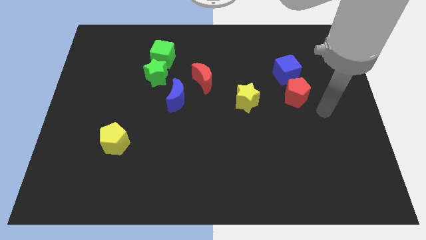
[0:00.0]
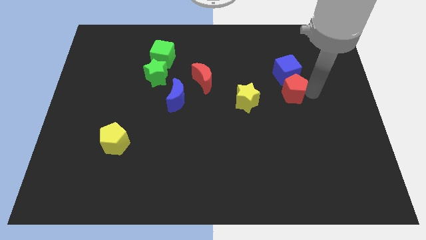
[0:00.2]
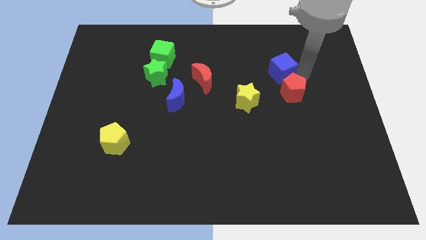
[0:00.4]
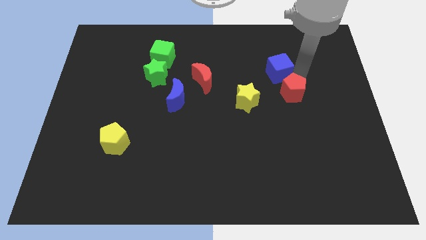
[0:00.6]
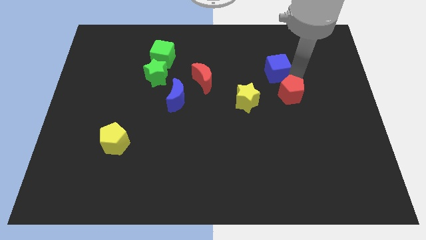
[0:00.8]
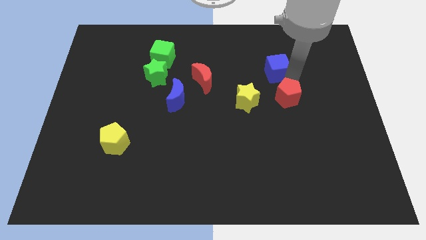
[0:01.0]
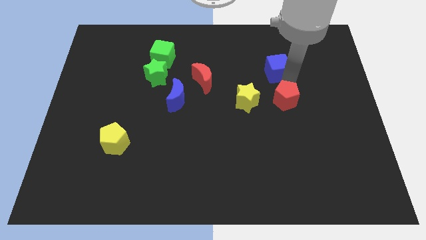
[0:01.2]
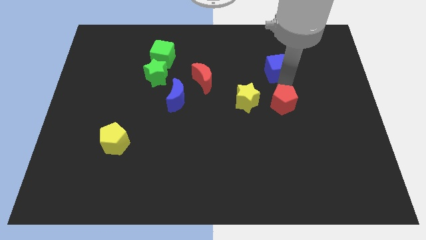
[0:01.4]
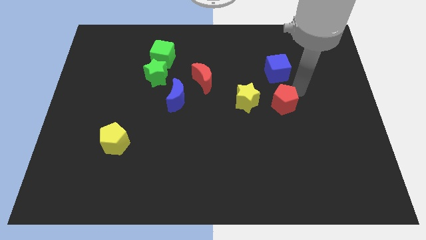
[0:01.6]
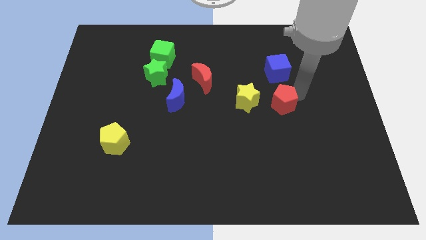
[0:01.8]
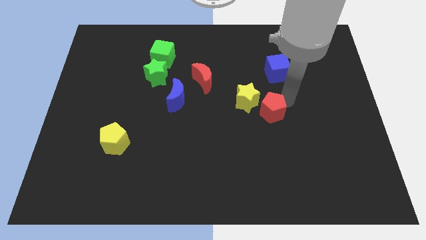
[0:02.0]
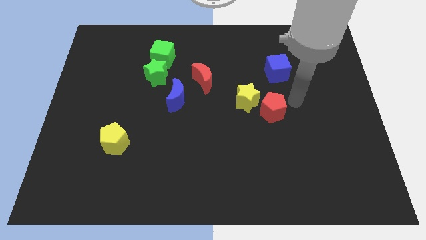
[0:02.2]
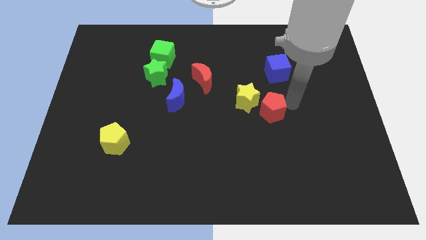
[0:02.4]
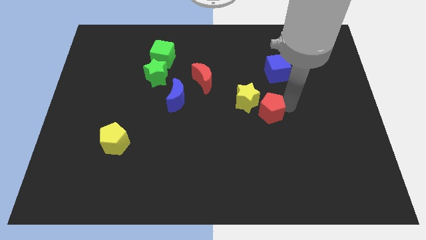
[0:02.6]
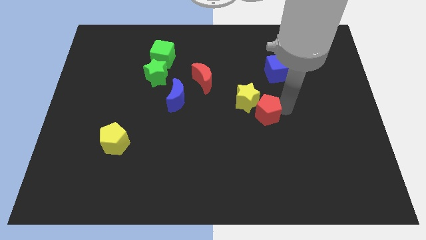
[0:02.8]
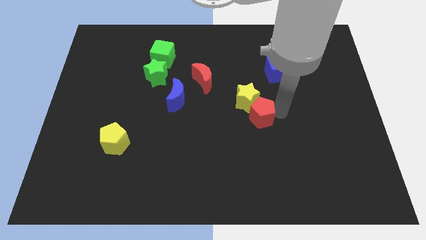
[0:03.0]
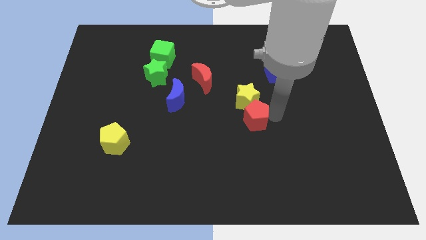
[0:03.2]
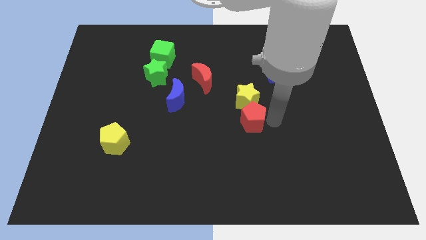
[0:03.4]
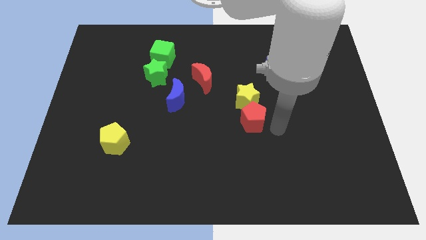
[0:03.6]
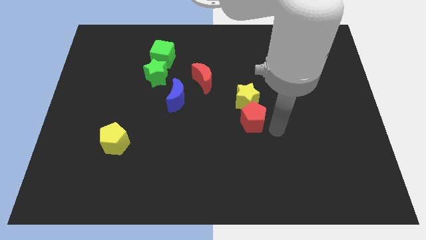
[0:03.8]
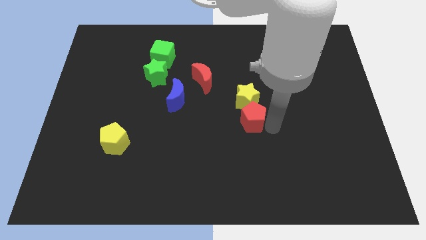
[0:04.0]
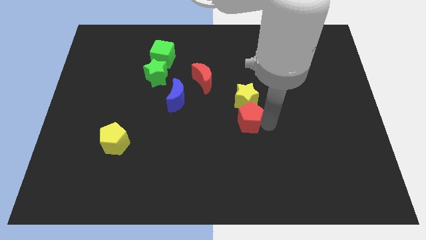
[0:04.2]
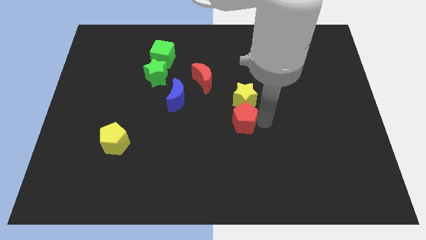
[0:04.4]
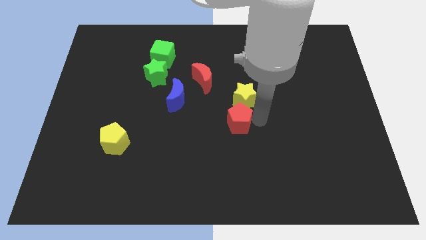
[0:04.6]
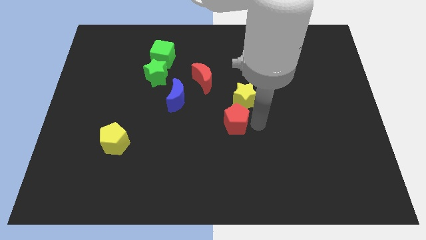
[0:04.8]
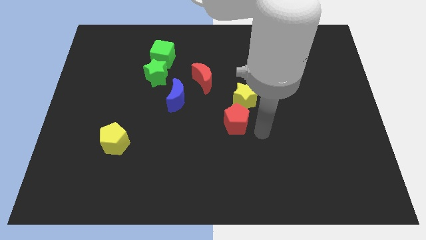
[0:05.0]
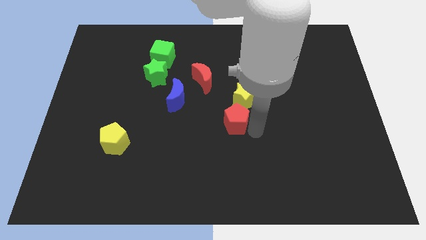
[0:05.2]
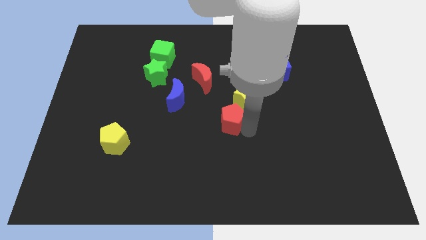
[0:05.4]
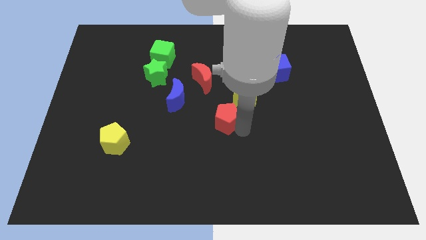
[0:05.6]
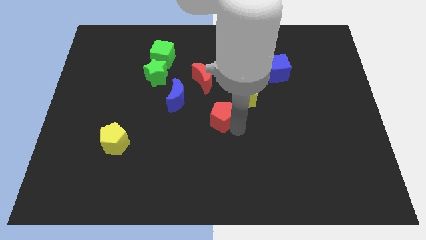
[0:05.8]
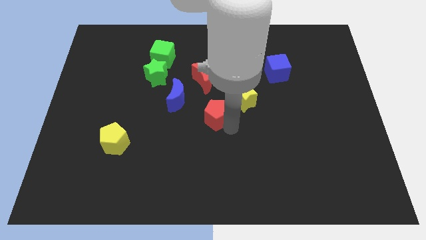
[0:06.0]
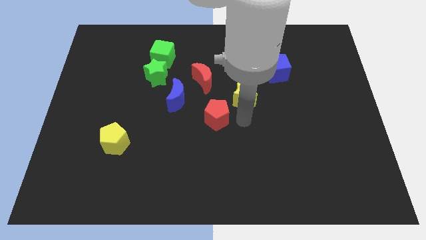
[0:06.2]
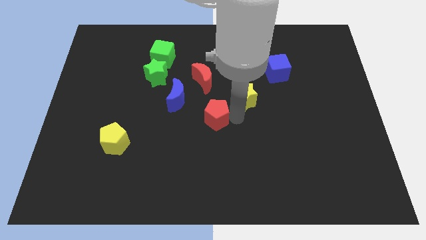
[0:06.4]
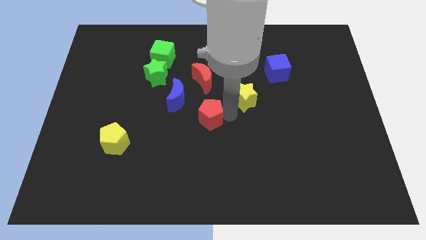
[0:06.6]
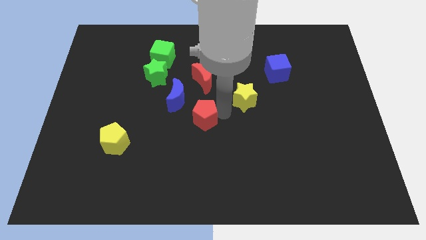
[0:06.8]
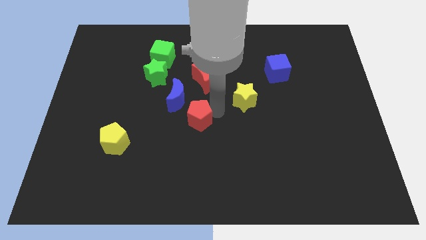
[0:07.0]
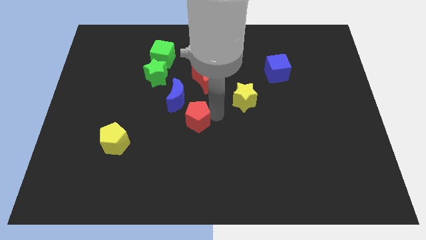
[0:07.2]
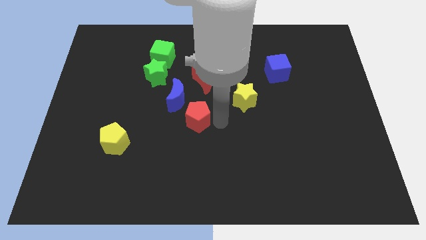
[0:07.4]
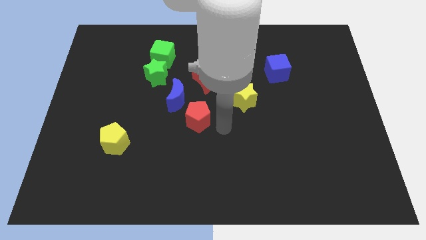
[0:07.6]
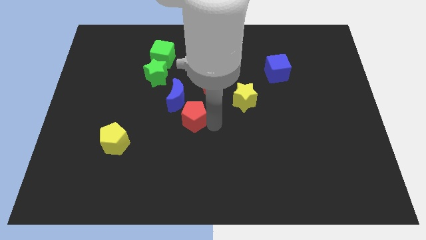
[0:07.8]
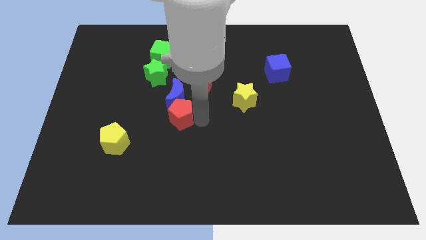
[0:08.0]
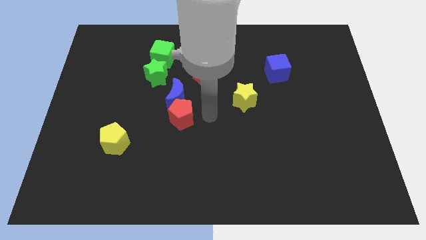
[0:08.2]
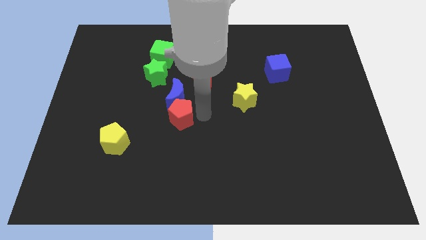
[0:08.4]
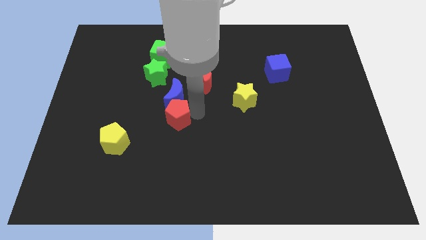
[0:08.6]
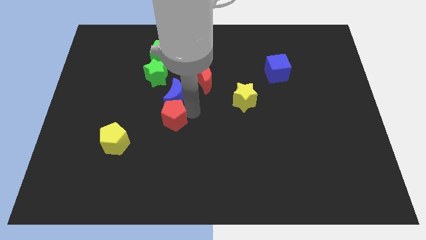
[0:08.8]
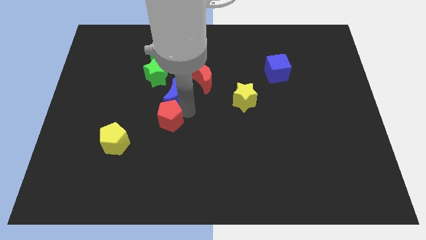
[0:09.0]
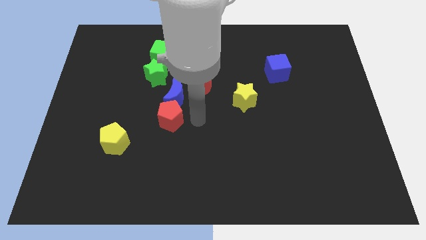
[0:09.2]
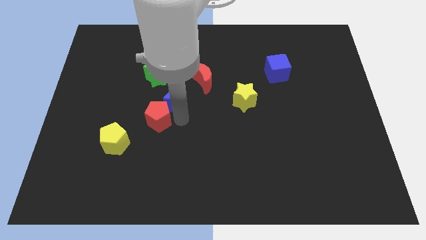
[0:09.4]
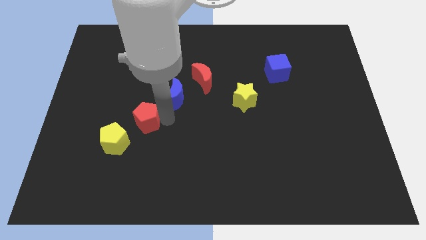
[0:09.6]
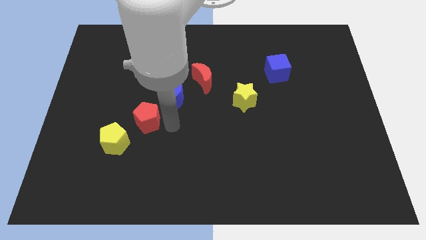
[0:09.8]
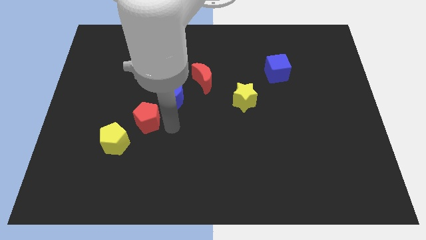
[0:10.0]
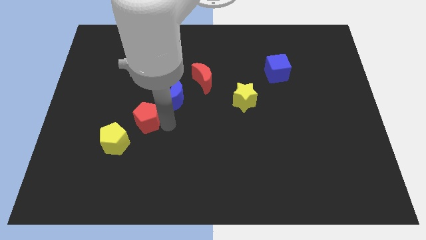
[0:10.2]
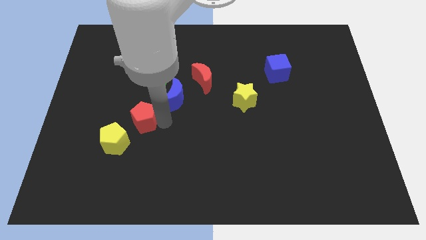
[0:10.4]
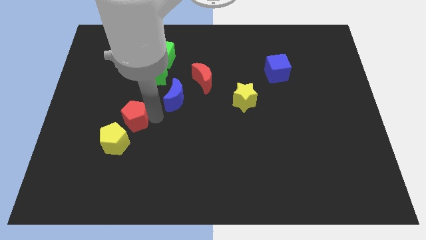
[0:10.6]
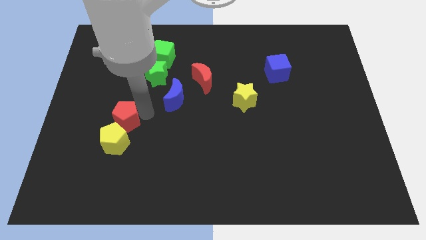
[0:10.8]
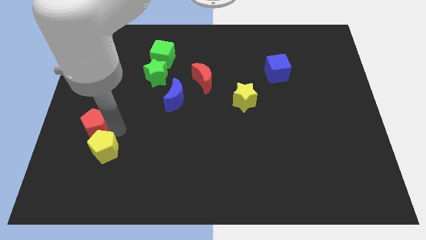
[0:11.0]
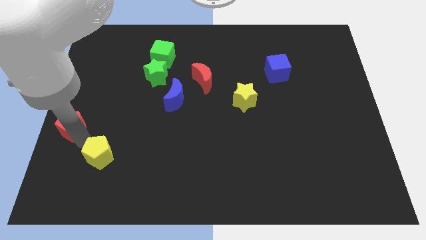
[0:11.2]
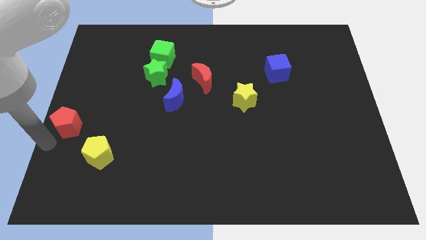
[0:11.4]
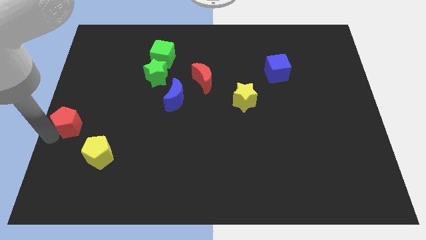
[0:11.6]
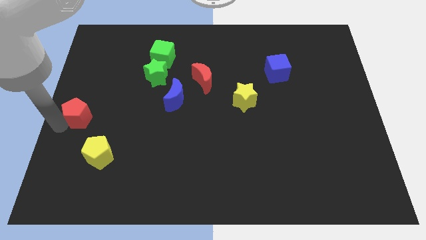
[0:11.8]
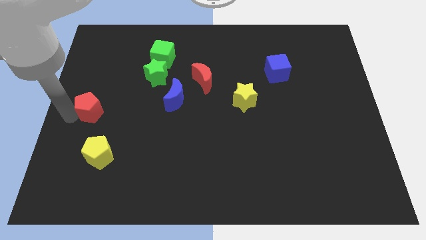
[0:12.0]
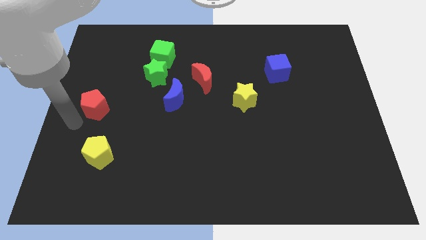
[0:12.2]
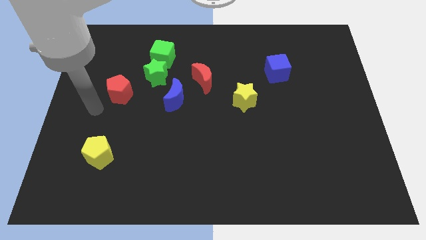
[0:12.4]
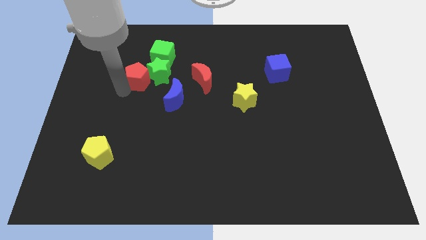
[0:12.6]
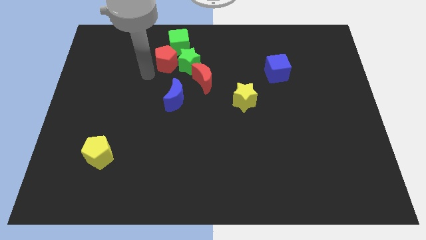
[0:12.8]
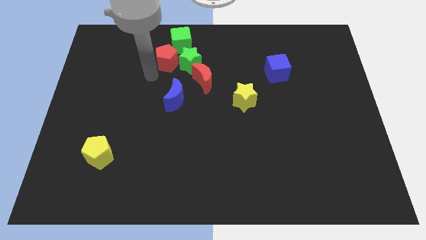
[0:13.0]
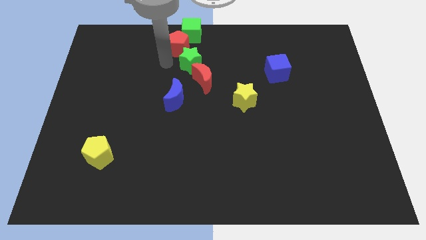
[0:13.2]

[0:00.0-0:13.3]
move the red pentagon to the top
